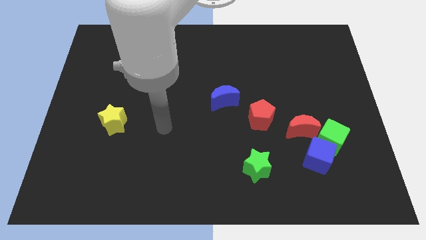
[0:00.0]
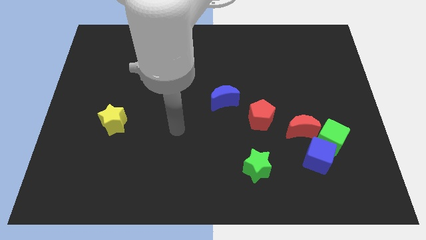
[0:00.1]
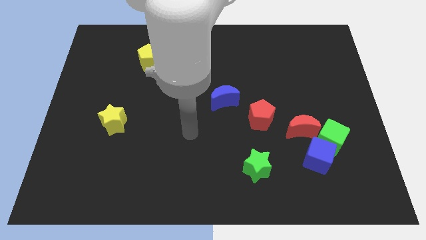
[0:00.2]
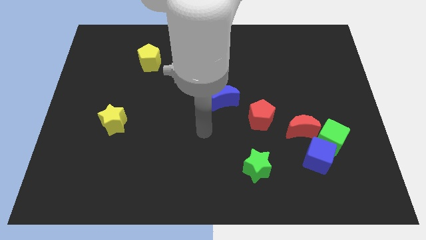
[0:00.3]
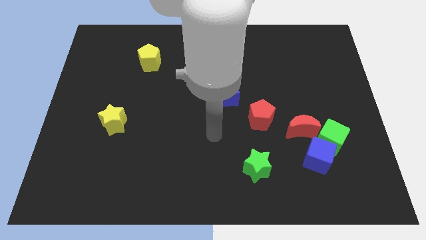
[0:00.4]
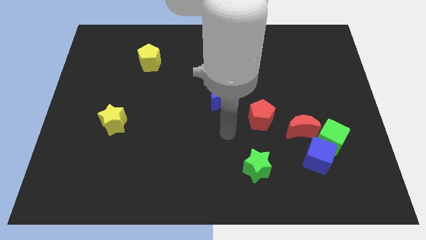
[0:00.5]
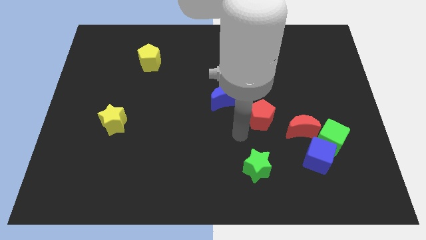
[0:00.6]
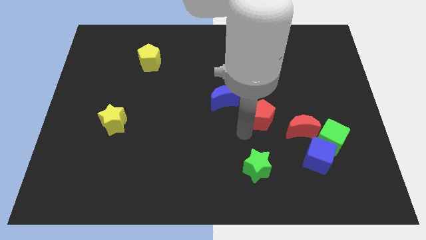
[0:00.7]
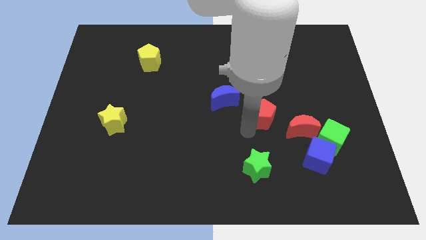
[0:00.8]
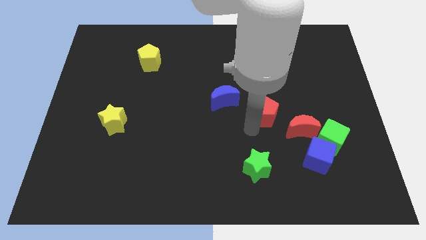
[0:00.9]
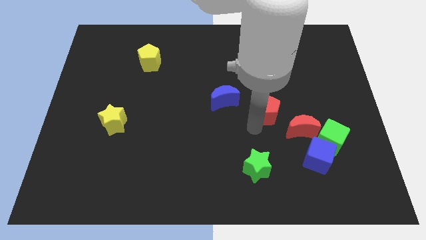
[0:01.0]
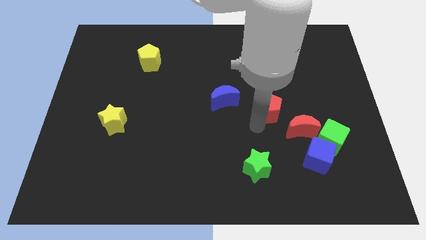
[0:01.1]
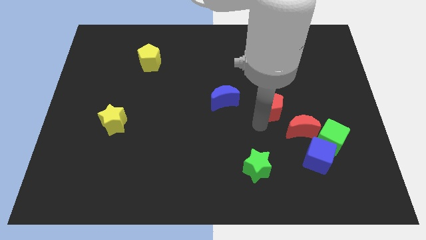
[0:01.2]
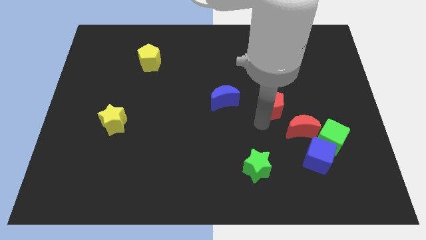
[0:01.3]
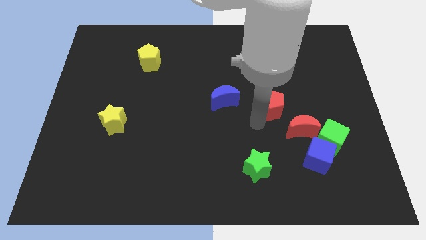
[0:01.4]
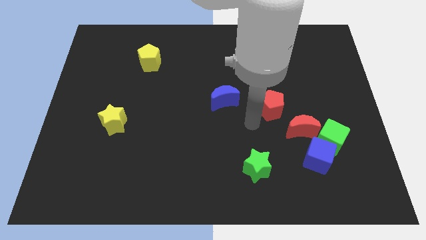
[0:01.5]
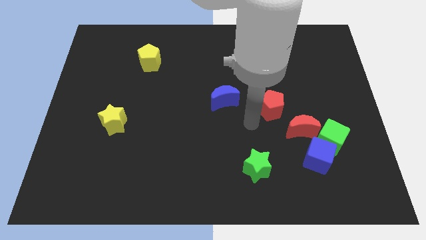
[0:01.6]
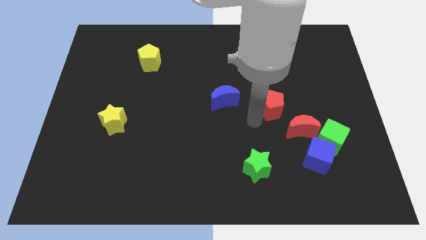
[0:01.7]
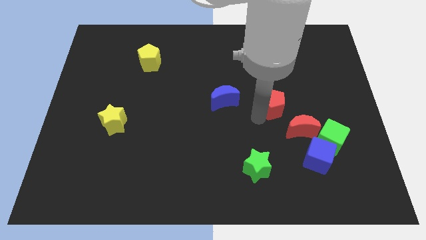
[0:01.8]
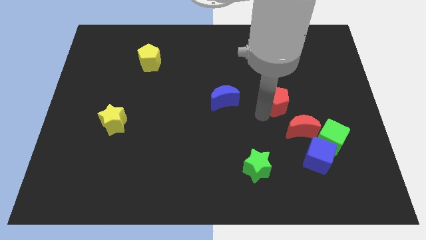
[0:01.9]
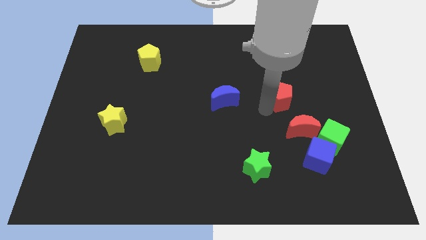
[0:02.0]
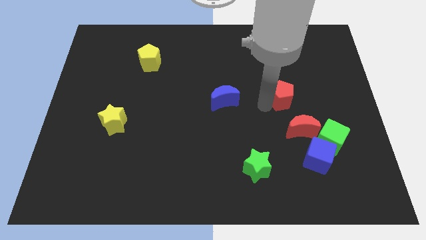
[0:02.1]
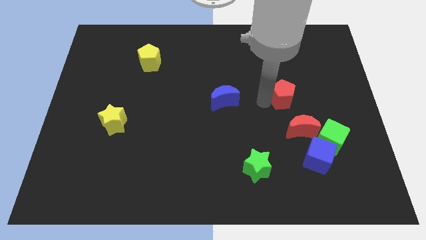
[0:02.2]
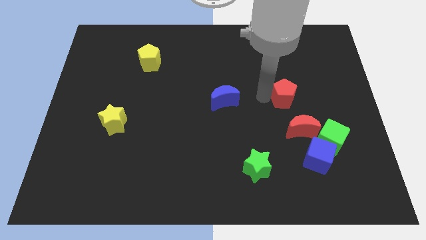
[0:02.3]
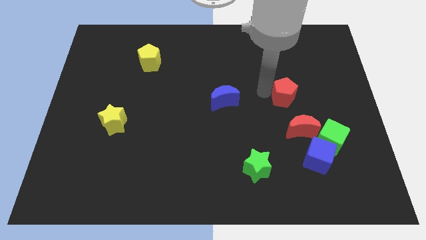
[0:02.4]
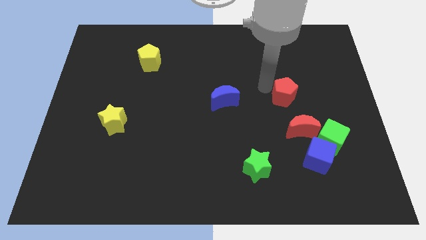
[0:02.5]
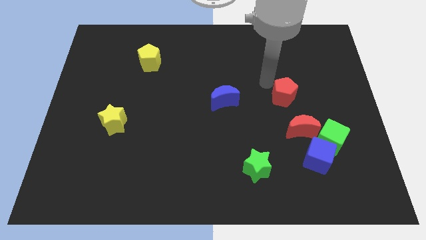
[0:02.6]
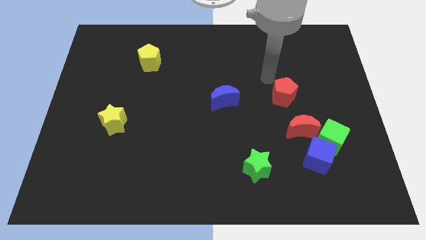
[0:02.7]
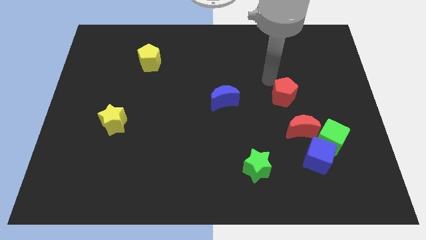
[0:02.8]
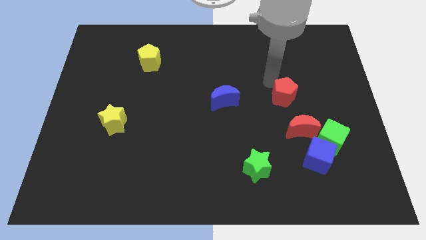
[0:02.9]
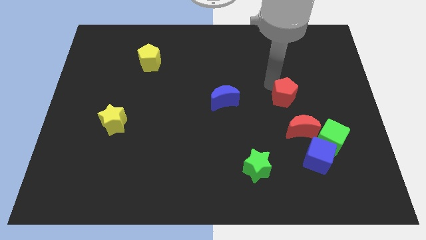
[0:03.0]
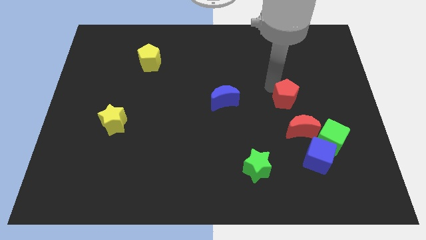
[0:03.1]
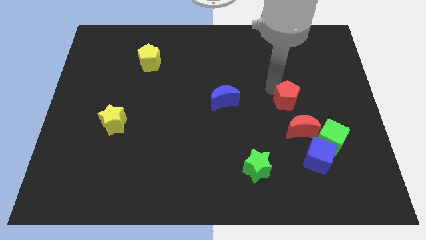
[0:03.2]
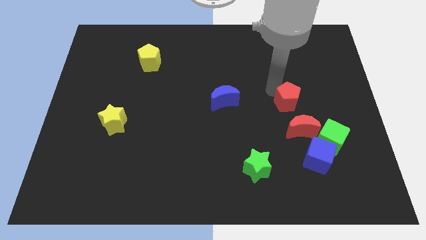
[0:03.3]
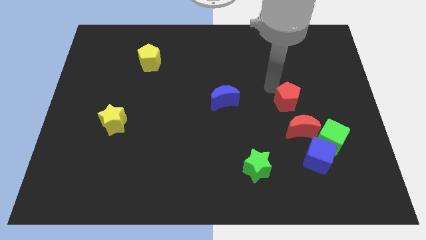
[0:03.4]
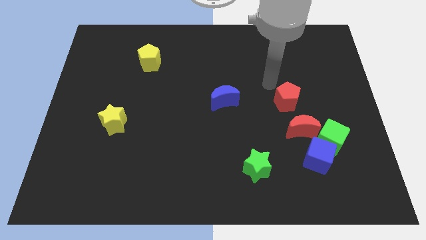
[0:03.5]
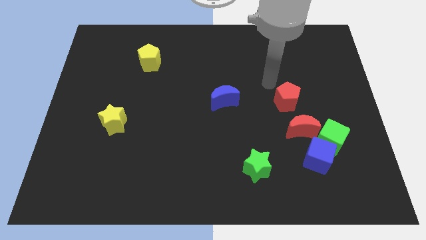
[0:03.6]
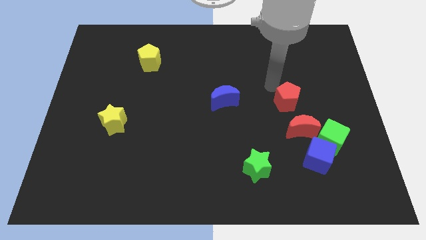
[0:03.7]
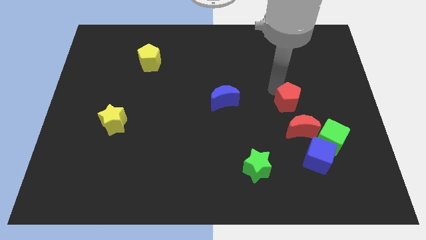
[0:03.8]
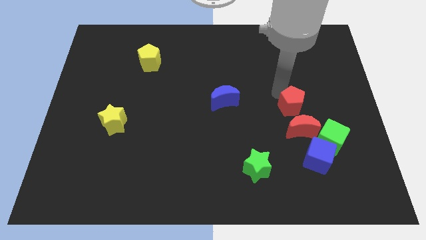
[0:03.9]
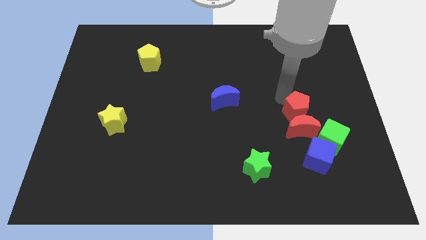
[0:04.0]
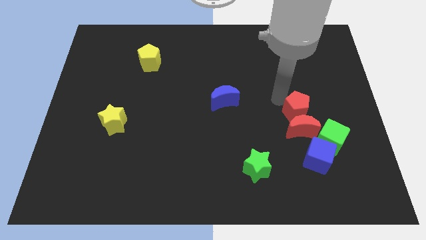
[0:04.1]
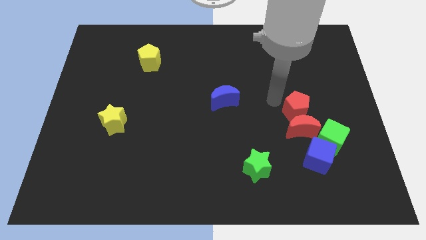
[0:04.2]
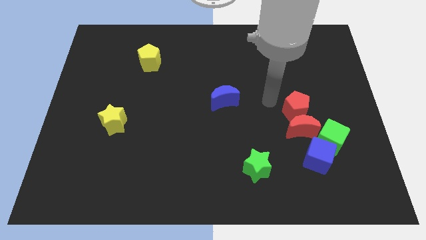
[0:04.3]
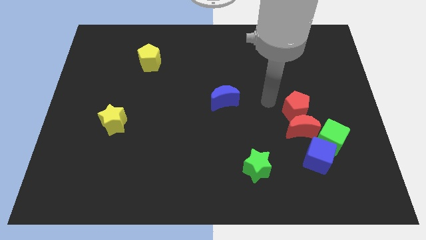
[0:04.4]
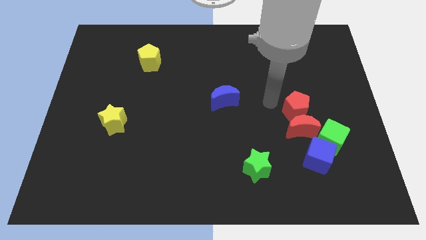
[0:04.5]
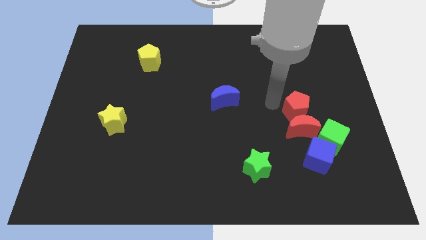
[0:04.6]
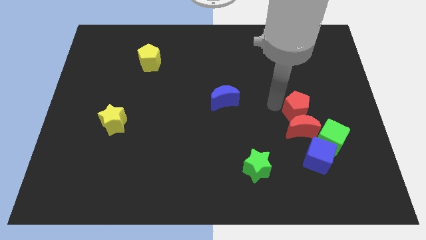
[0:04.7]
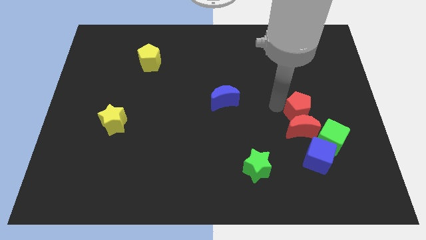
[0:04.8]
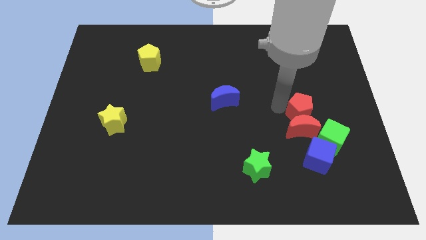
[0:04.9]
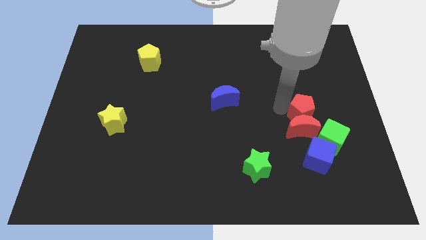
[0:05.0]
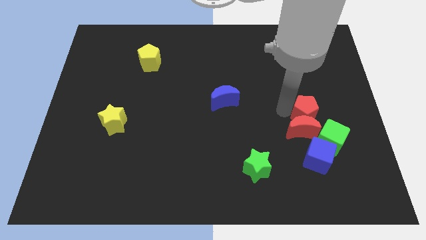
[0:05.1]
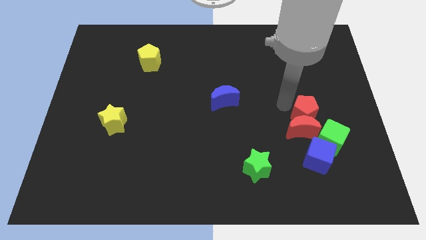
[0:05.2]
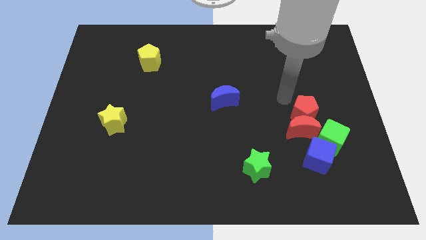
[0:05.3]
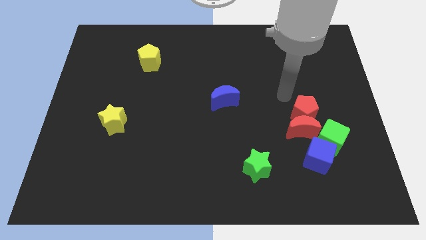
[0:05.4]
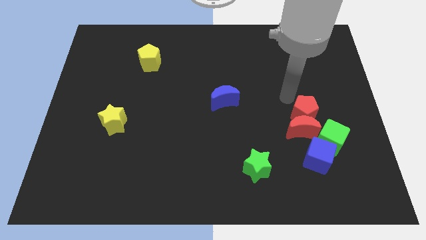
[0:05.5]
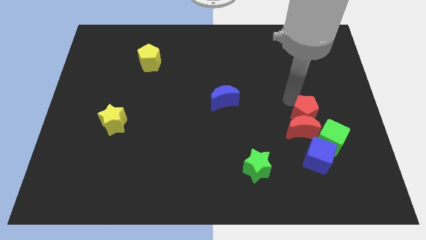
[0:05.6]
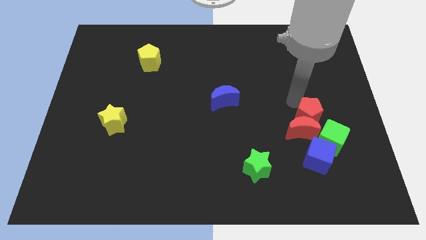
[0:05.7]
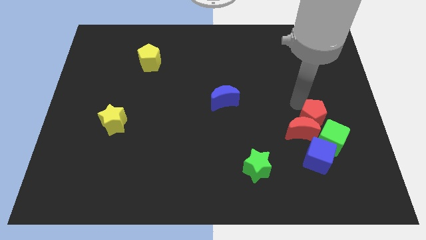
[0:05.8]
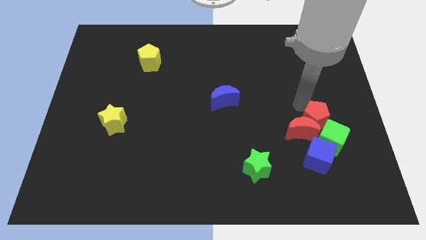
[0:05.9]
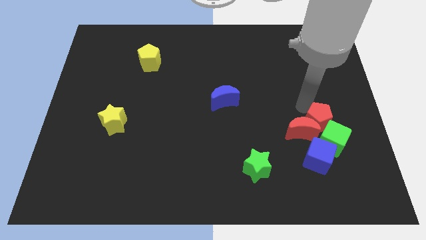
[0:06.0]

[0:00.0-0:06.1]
put the red pentagon next to the green cube
